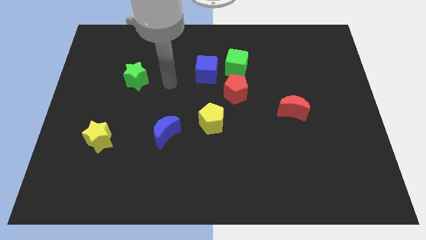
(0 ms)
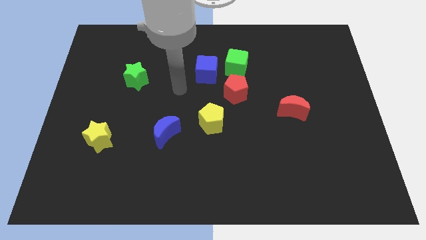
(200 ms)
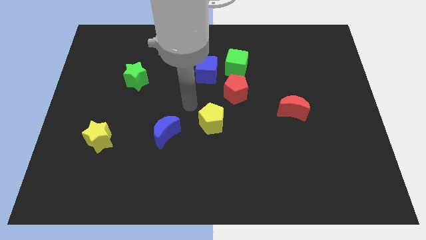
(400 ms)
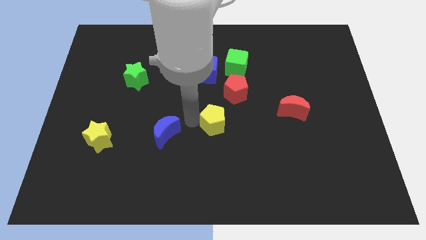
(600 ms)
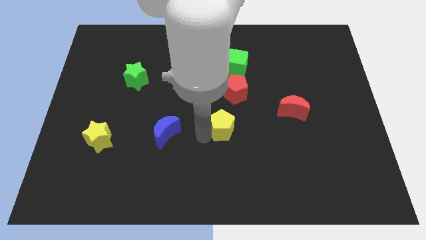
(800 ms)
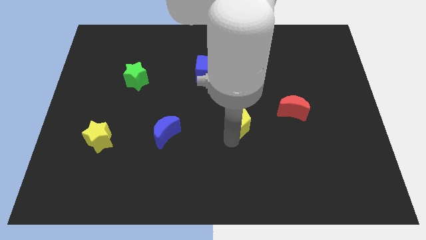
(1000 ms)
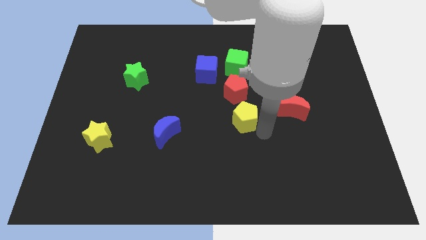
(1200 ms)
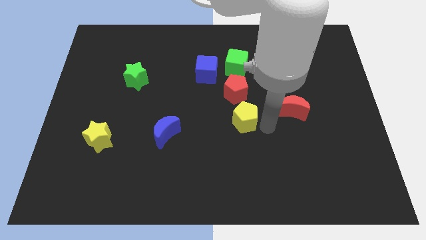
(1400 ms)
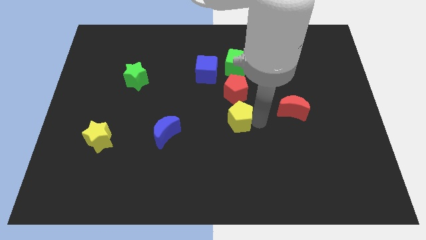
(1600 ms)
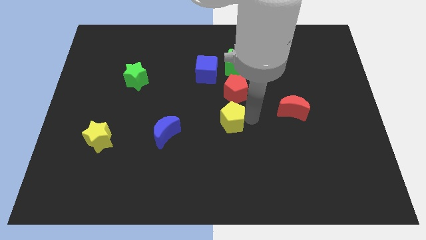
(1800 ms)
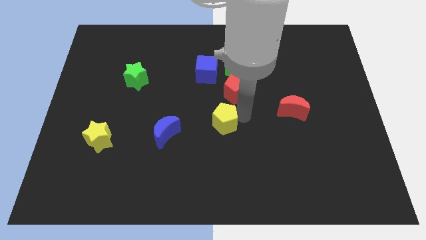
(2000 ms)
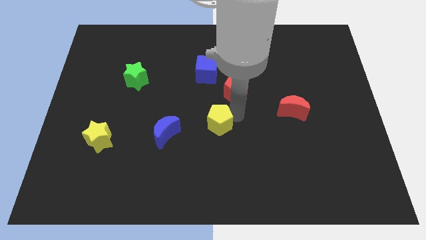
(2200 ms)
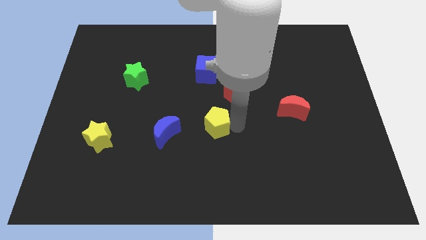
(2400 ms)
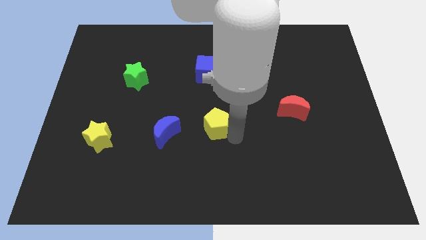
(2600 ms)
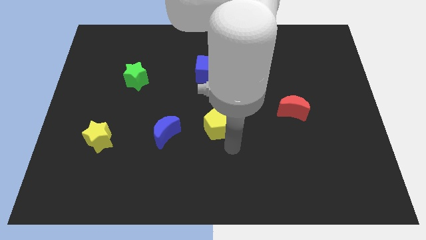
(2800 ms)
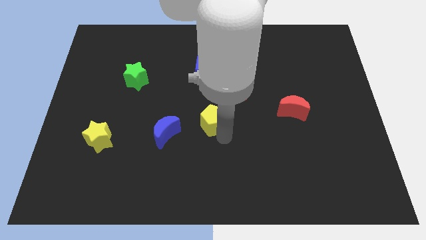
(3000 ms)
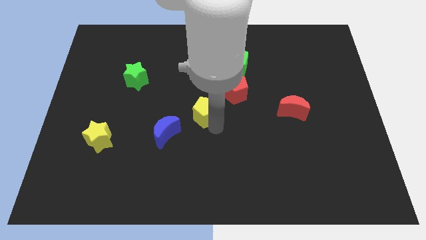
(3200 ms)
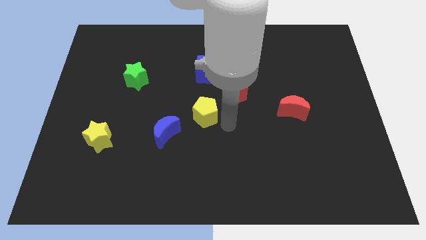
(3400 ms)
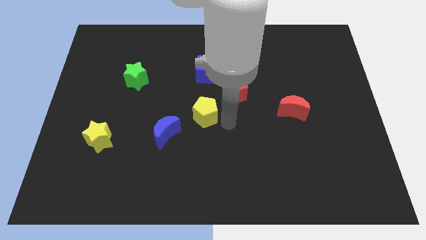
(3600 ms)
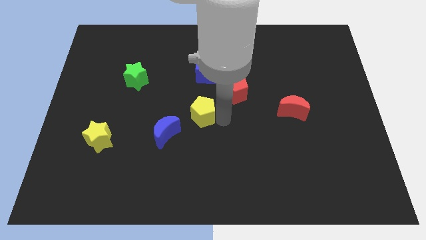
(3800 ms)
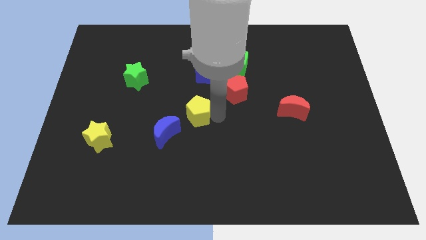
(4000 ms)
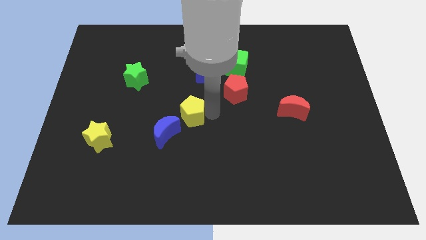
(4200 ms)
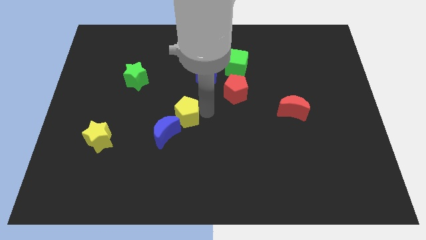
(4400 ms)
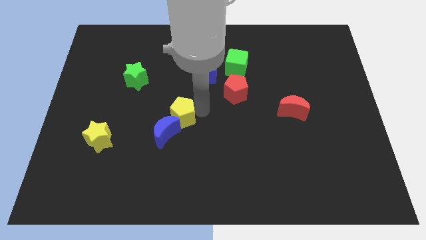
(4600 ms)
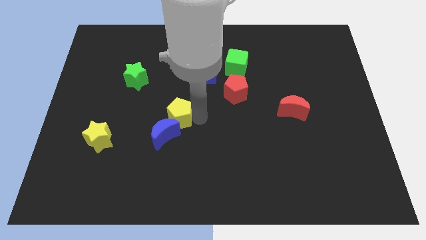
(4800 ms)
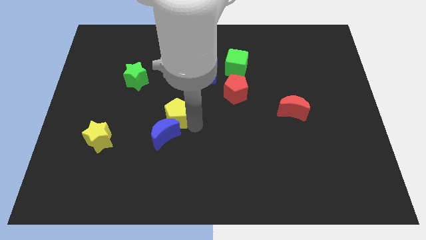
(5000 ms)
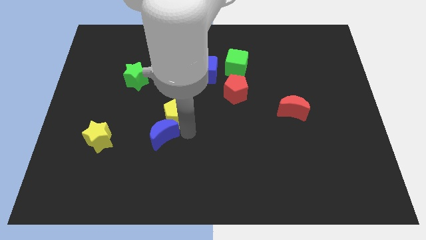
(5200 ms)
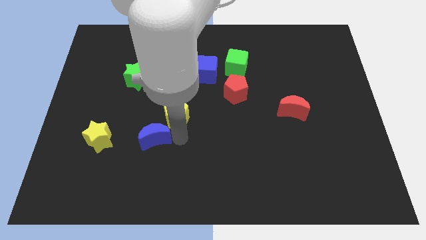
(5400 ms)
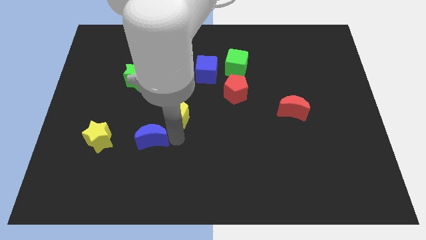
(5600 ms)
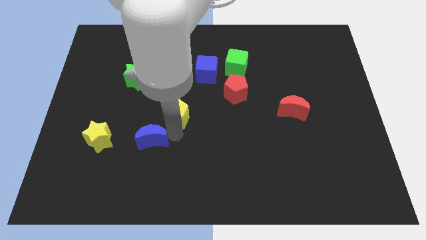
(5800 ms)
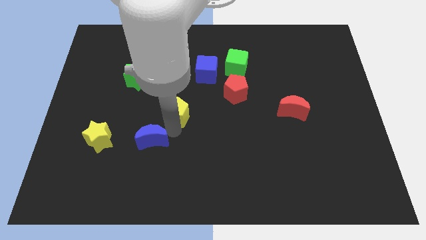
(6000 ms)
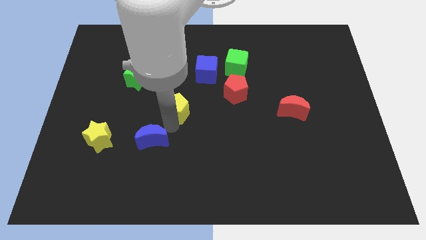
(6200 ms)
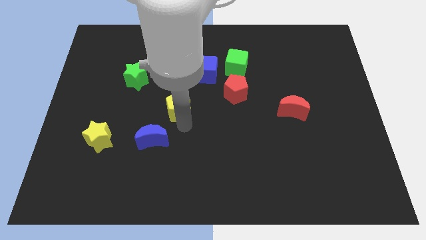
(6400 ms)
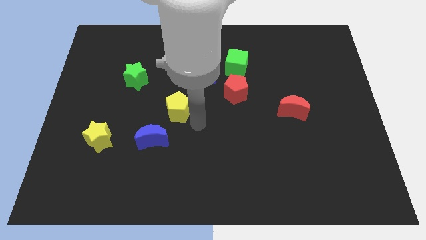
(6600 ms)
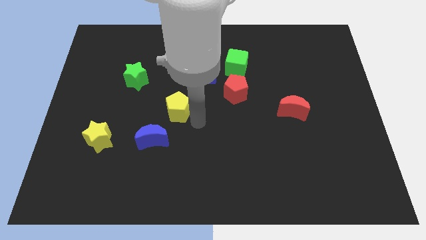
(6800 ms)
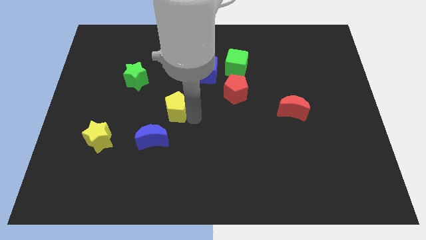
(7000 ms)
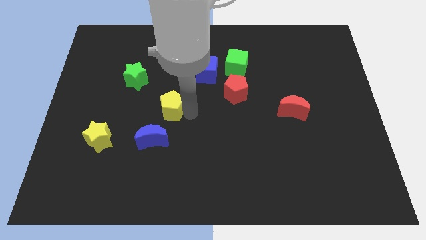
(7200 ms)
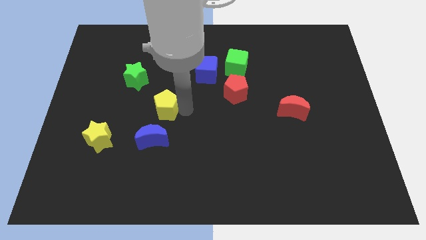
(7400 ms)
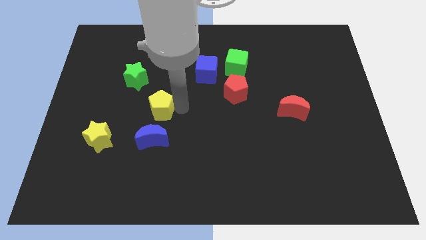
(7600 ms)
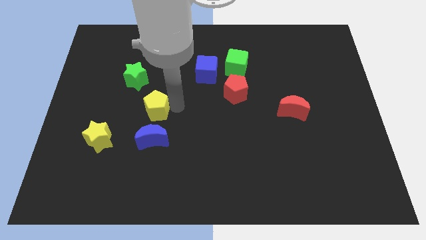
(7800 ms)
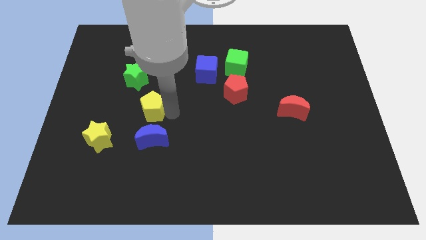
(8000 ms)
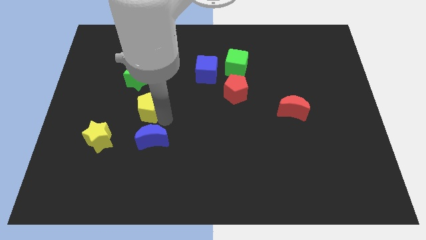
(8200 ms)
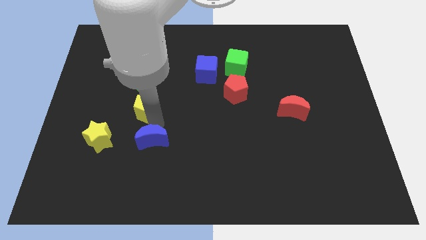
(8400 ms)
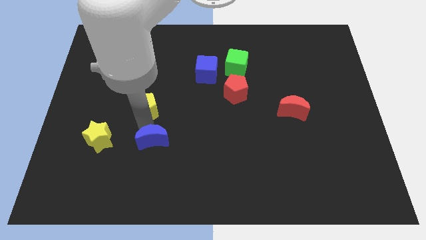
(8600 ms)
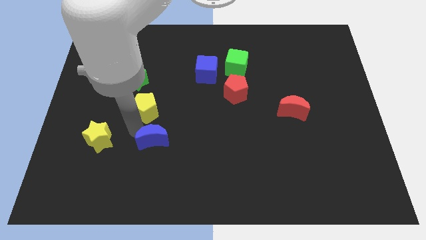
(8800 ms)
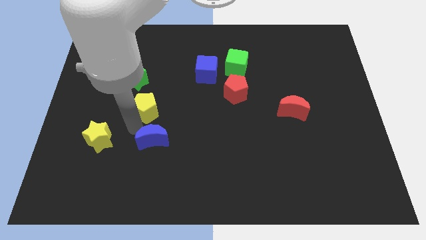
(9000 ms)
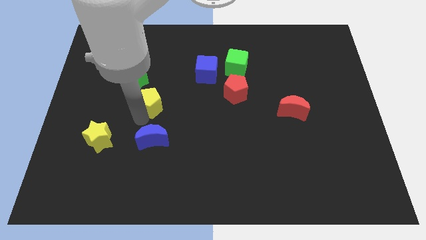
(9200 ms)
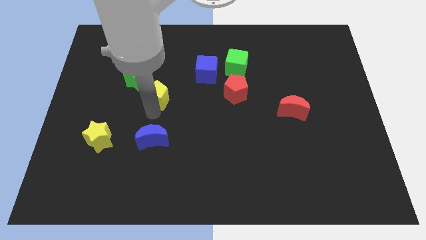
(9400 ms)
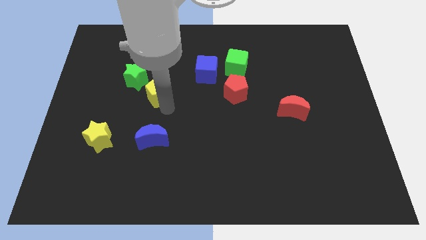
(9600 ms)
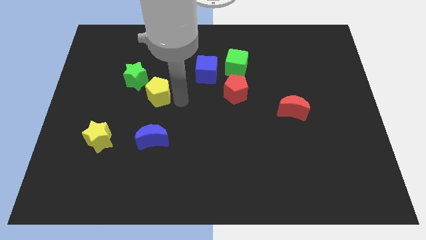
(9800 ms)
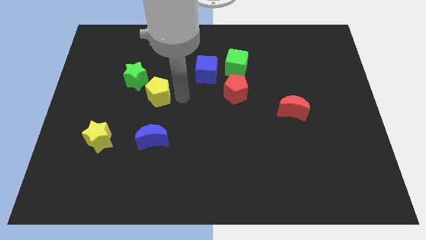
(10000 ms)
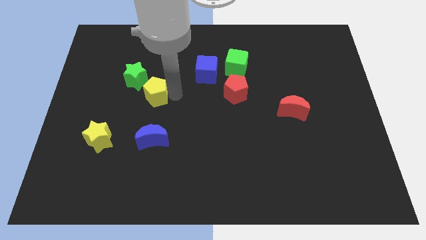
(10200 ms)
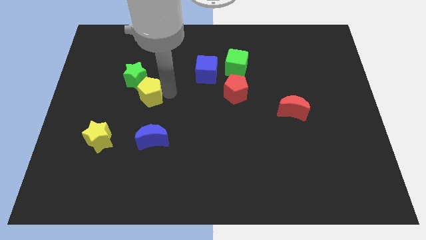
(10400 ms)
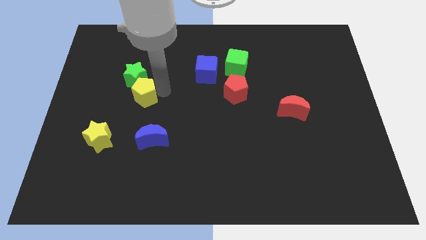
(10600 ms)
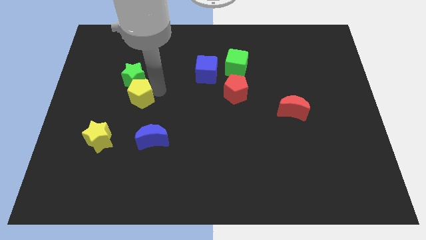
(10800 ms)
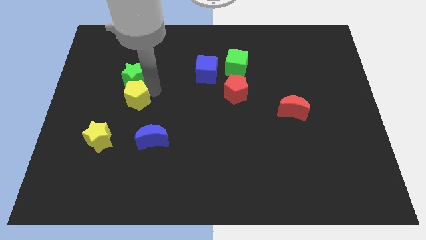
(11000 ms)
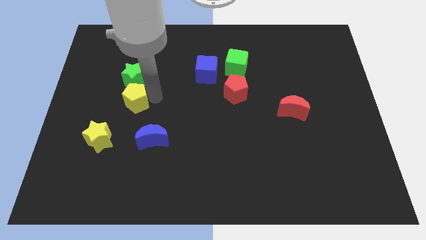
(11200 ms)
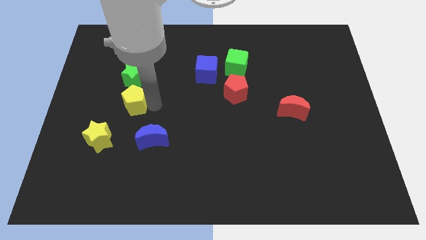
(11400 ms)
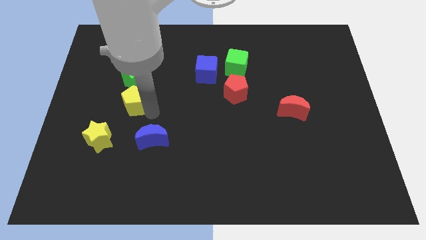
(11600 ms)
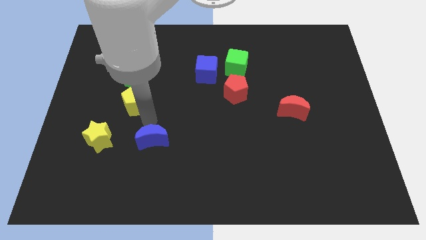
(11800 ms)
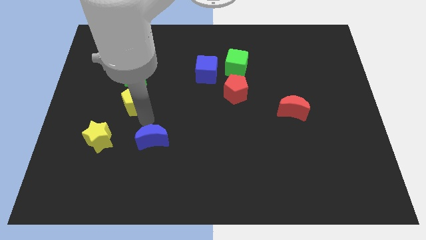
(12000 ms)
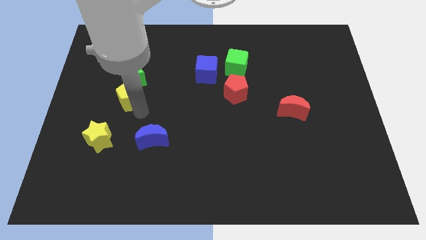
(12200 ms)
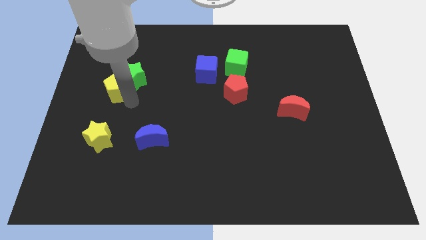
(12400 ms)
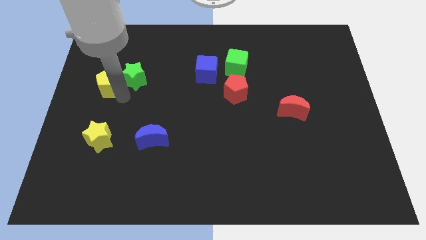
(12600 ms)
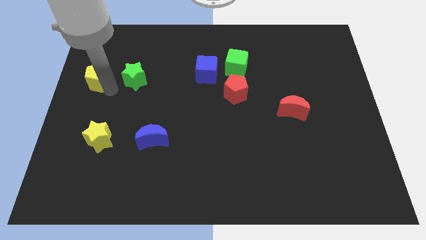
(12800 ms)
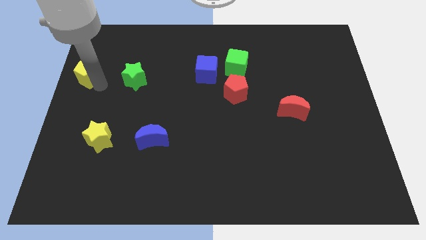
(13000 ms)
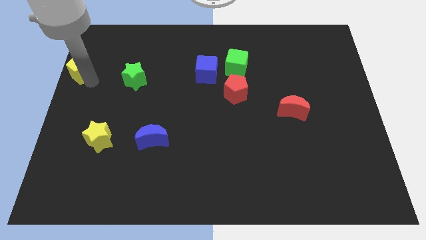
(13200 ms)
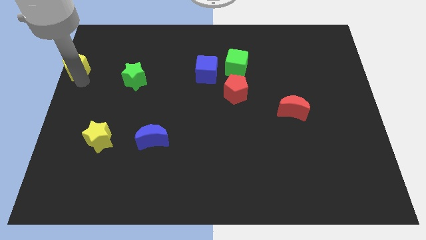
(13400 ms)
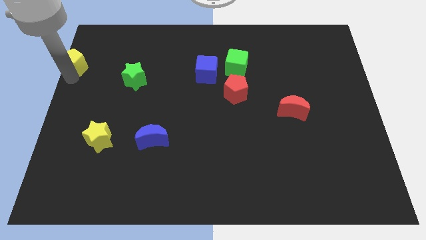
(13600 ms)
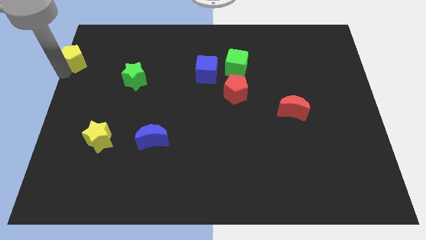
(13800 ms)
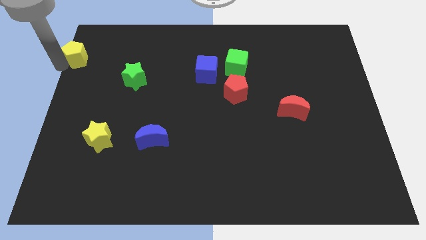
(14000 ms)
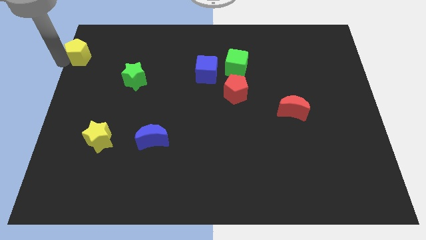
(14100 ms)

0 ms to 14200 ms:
move the yellow pentagon to the top left of the board
